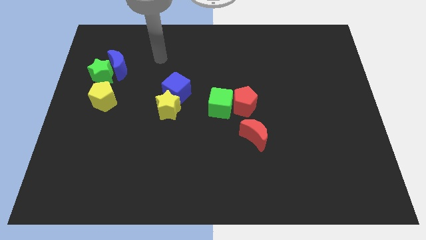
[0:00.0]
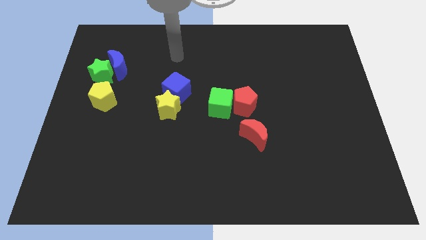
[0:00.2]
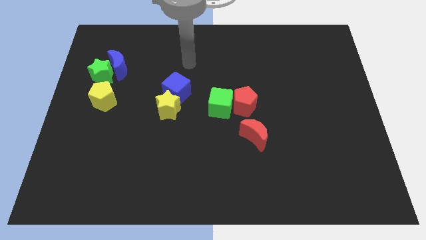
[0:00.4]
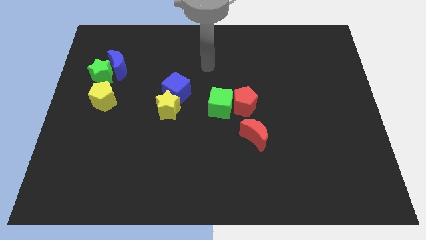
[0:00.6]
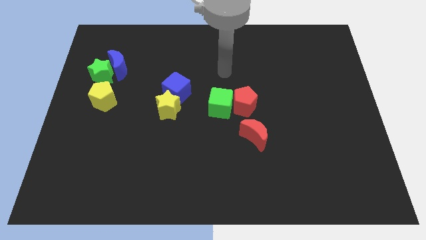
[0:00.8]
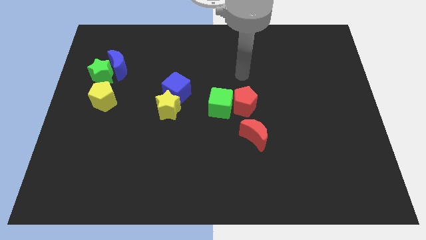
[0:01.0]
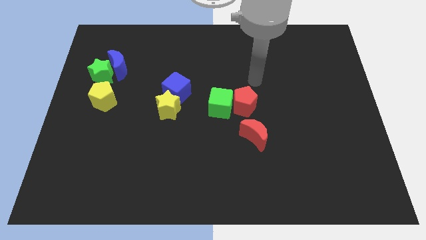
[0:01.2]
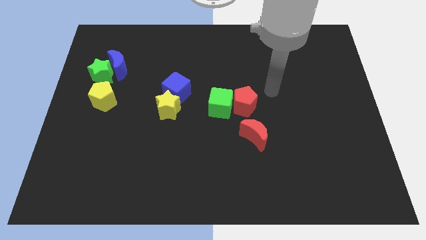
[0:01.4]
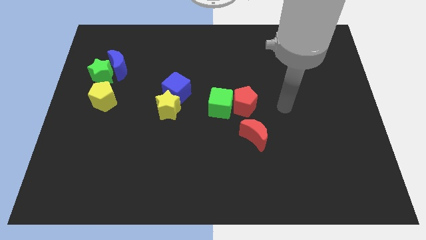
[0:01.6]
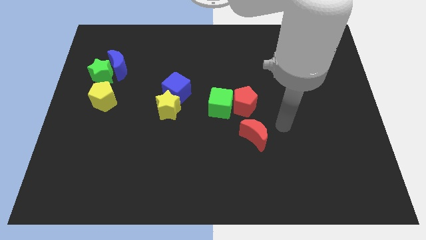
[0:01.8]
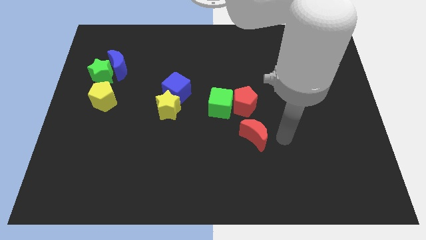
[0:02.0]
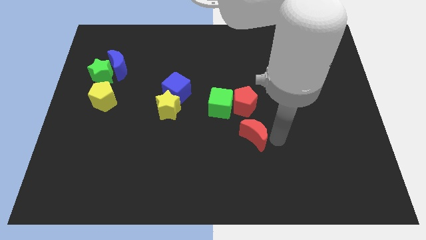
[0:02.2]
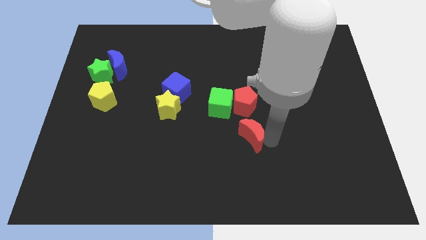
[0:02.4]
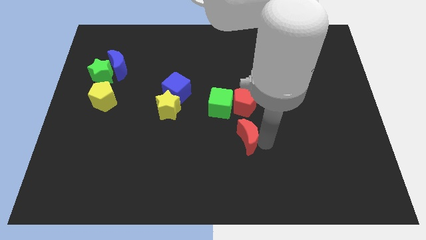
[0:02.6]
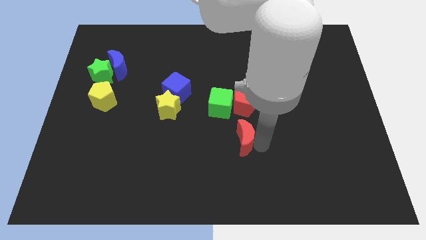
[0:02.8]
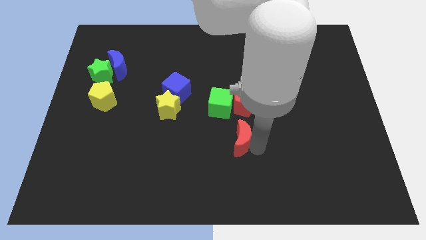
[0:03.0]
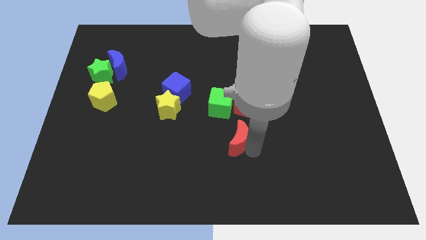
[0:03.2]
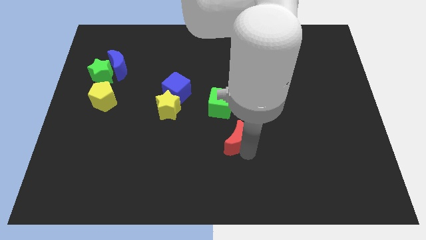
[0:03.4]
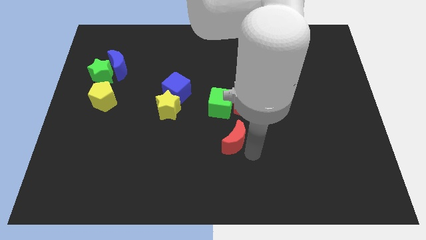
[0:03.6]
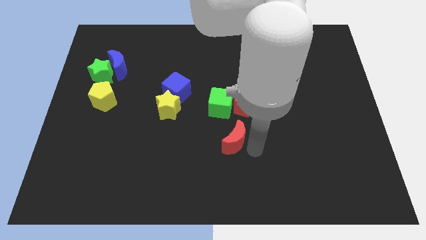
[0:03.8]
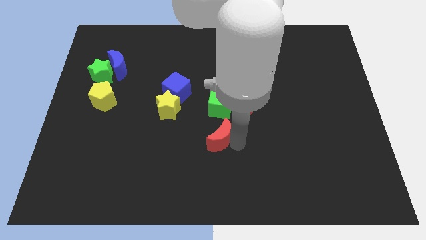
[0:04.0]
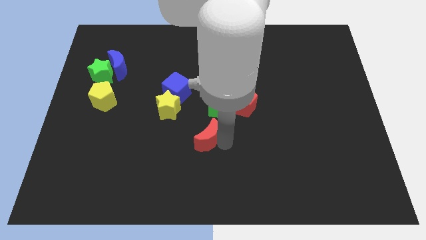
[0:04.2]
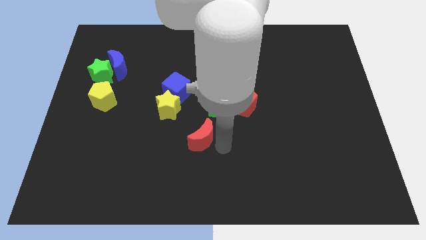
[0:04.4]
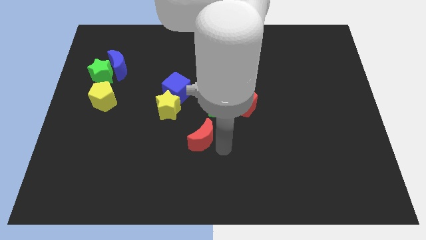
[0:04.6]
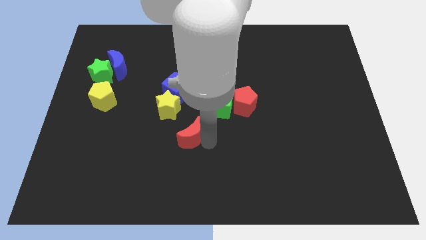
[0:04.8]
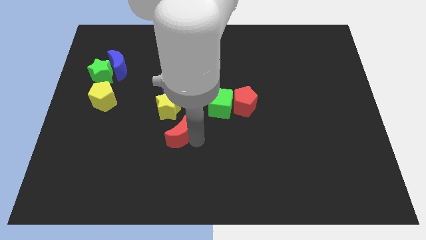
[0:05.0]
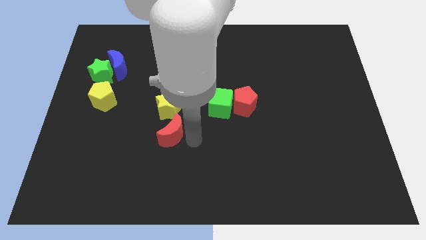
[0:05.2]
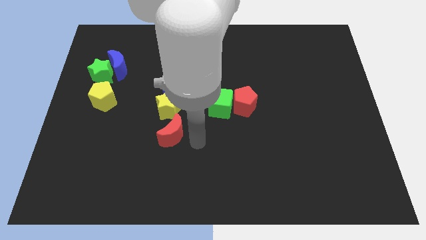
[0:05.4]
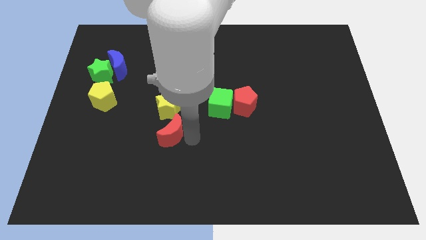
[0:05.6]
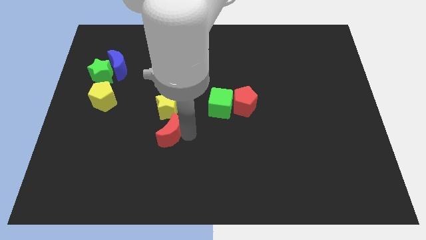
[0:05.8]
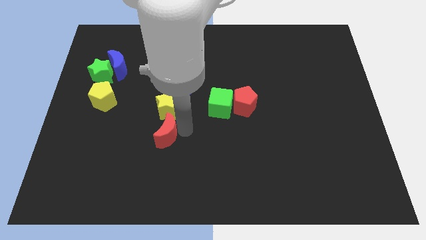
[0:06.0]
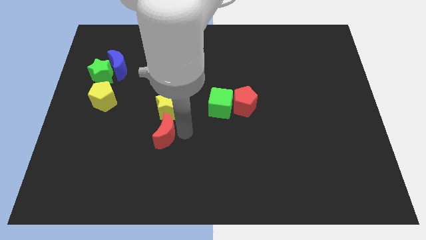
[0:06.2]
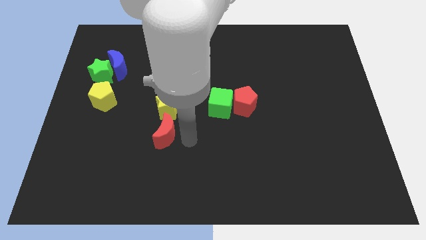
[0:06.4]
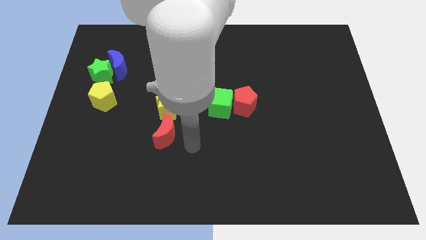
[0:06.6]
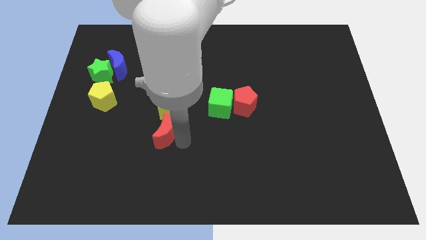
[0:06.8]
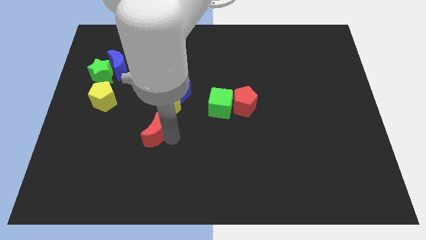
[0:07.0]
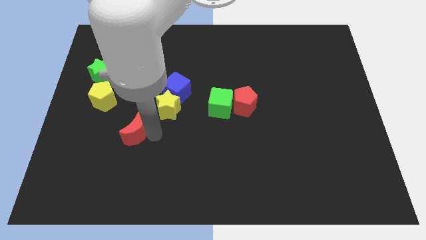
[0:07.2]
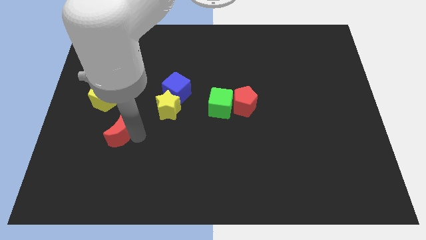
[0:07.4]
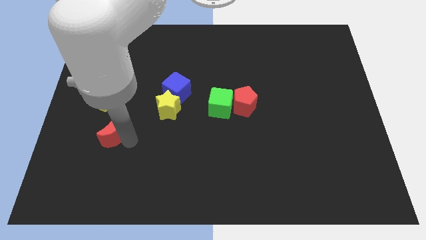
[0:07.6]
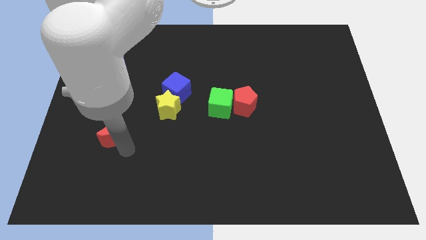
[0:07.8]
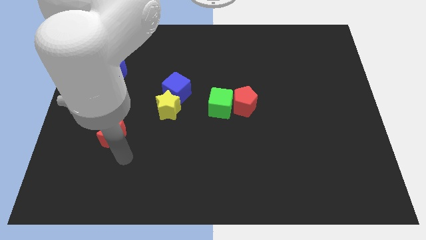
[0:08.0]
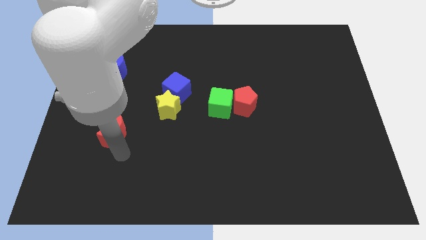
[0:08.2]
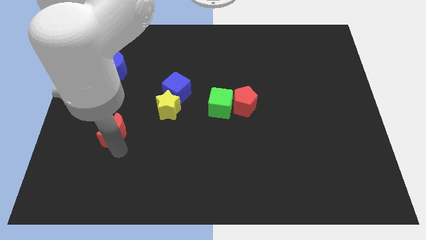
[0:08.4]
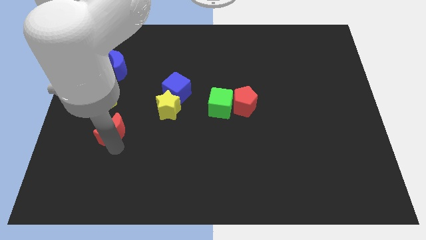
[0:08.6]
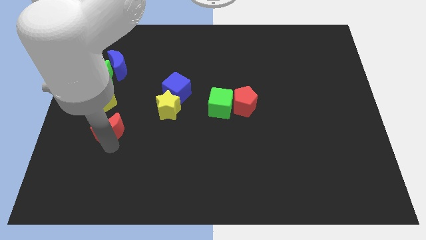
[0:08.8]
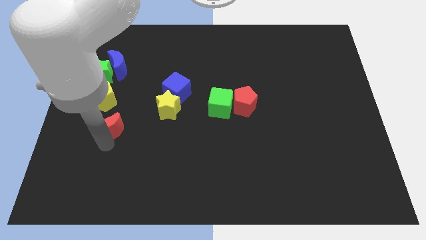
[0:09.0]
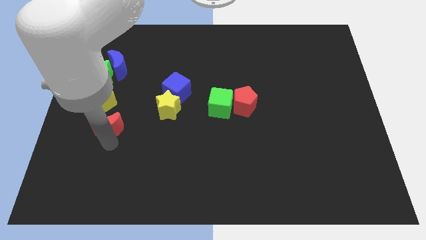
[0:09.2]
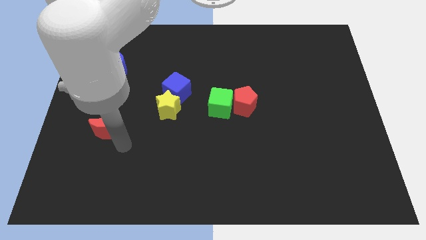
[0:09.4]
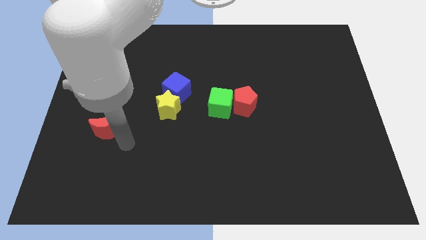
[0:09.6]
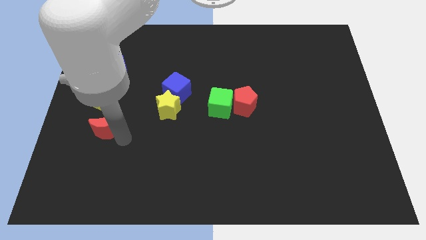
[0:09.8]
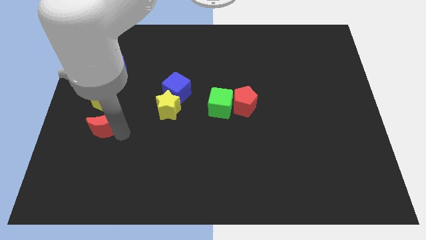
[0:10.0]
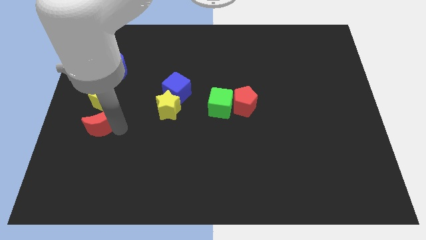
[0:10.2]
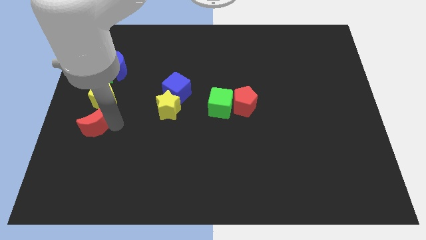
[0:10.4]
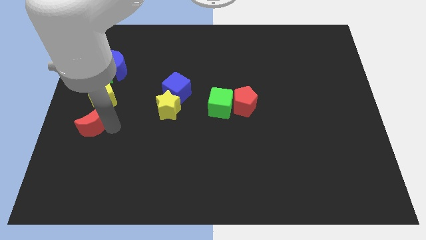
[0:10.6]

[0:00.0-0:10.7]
push the red moon to the left side of the board

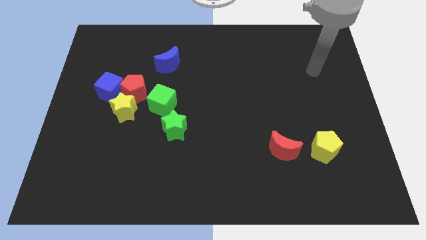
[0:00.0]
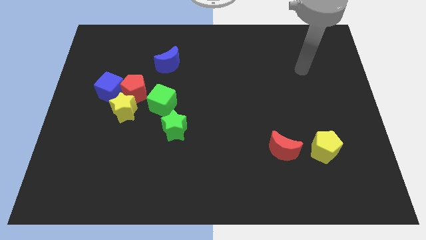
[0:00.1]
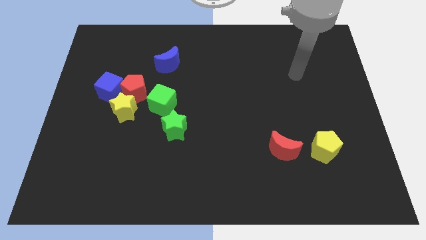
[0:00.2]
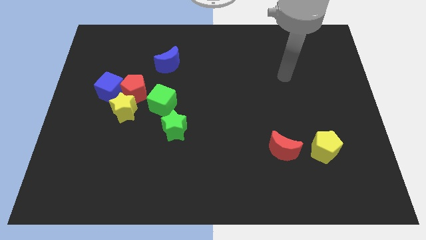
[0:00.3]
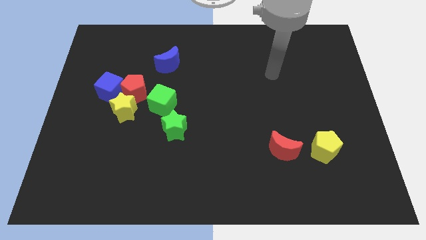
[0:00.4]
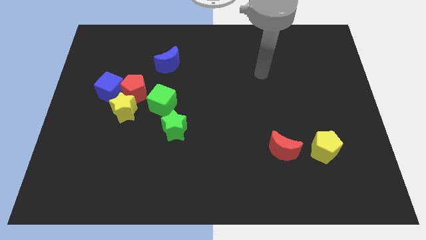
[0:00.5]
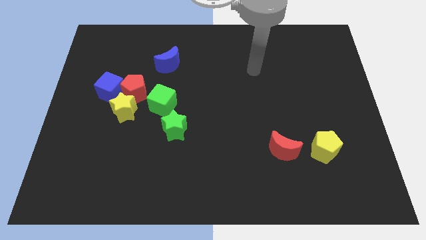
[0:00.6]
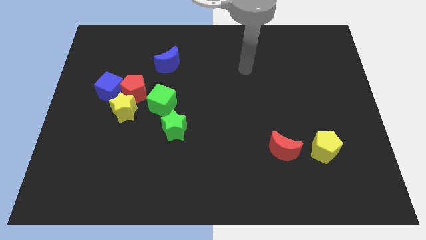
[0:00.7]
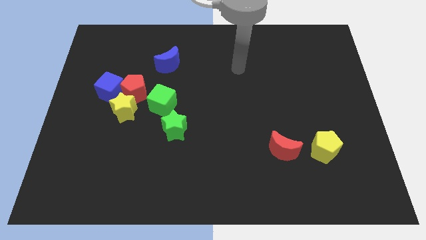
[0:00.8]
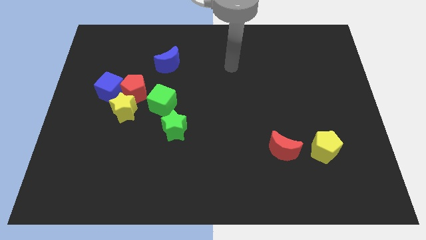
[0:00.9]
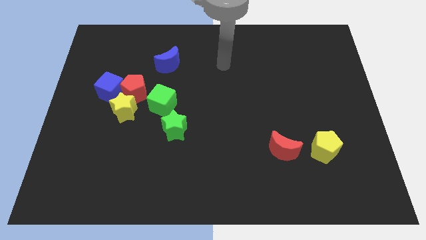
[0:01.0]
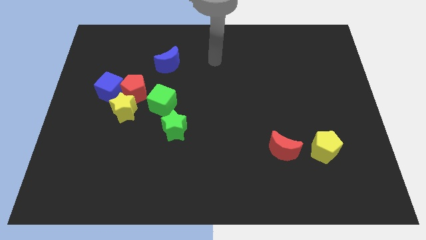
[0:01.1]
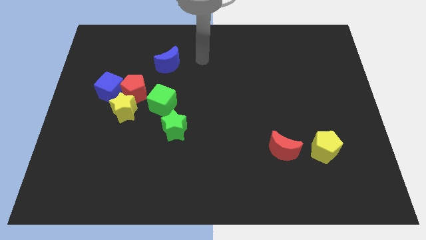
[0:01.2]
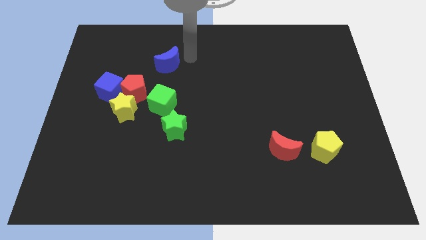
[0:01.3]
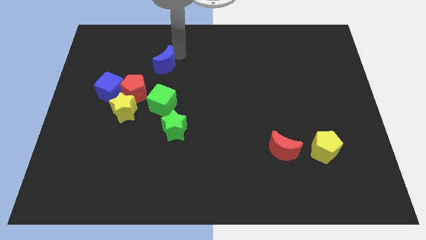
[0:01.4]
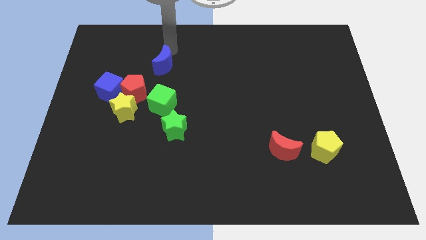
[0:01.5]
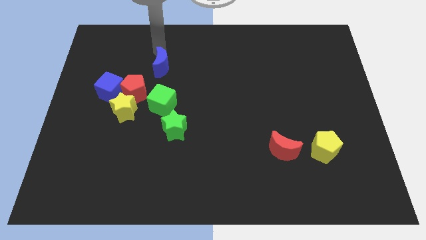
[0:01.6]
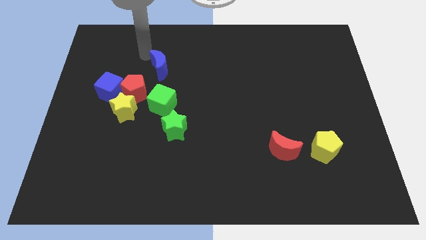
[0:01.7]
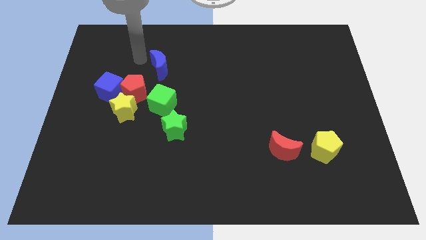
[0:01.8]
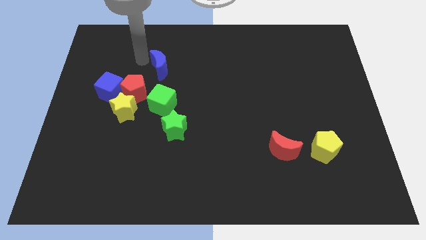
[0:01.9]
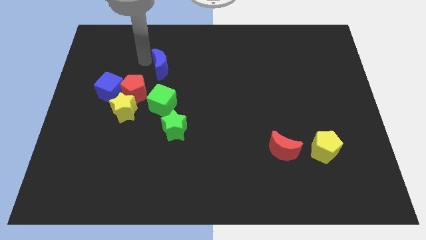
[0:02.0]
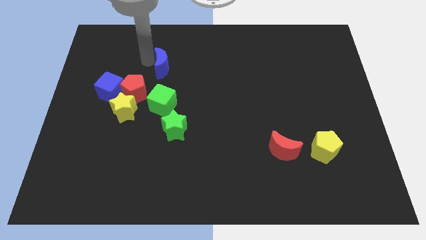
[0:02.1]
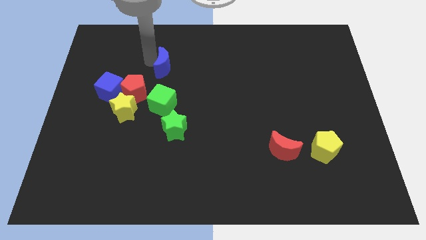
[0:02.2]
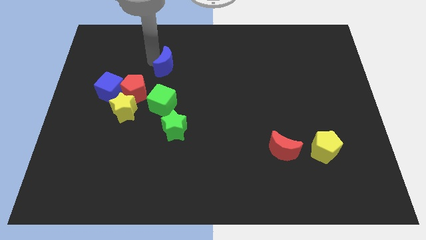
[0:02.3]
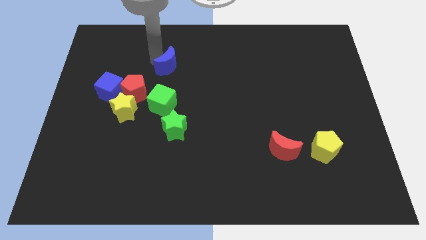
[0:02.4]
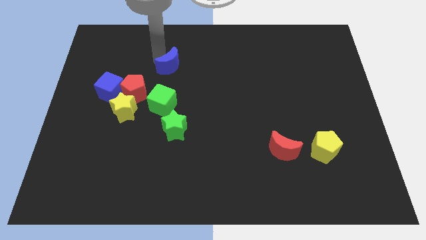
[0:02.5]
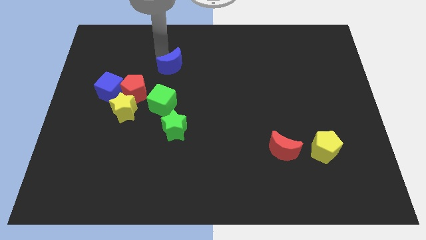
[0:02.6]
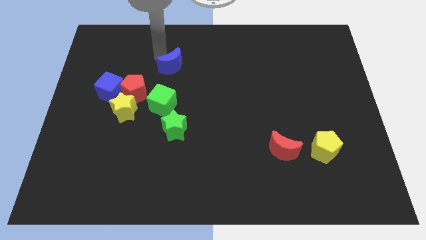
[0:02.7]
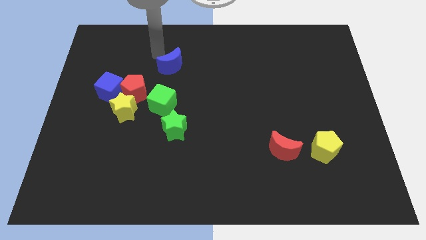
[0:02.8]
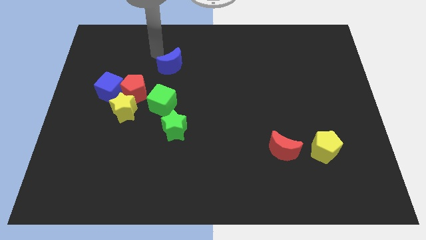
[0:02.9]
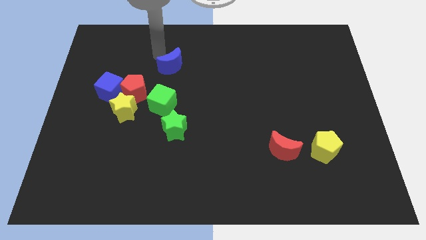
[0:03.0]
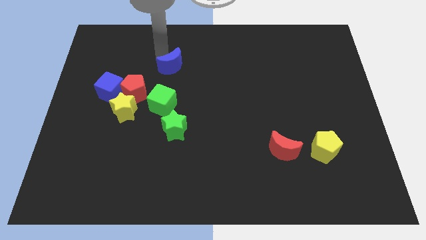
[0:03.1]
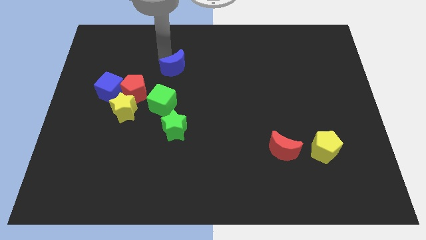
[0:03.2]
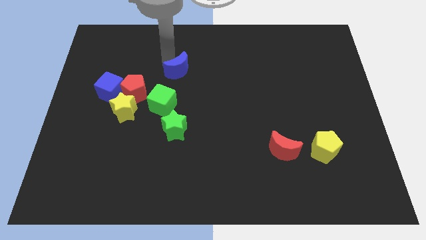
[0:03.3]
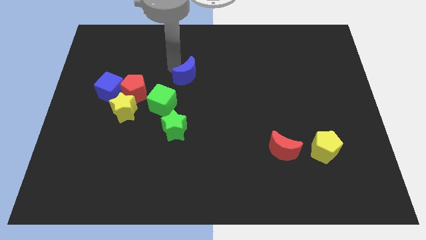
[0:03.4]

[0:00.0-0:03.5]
slide the blue moon to the middle of the board
